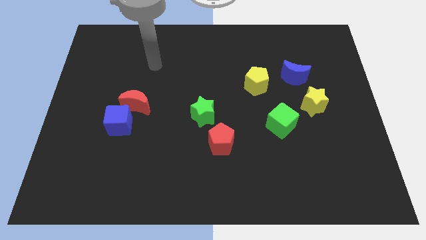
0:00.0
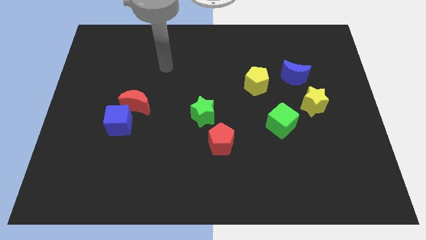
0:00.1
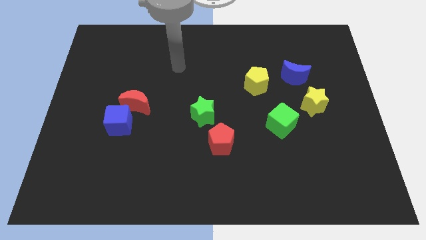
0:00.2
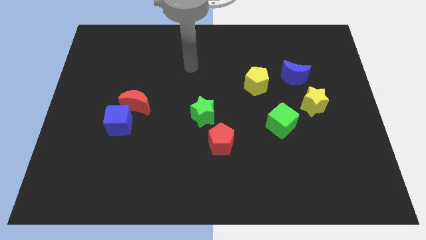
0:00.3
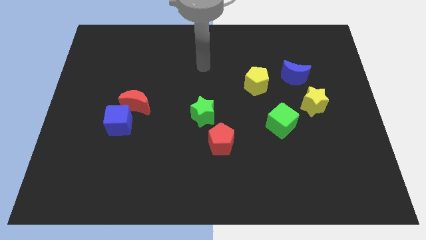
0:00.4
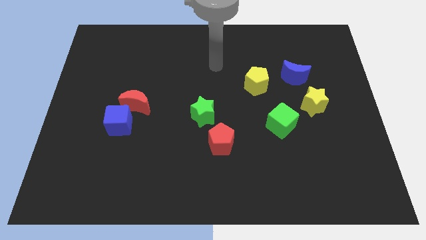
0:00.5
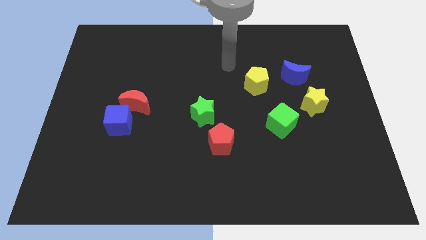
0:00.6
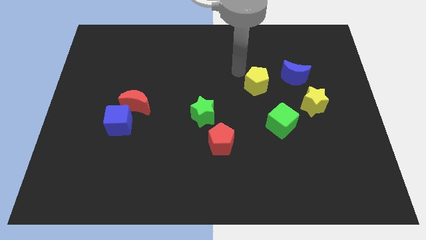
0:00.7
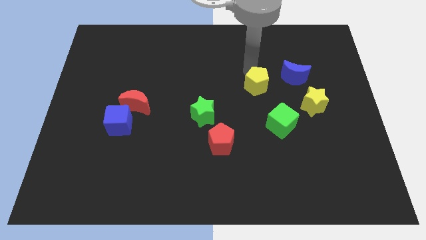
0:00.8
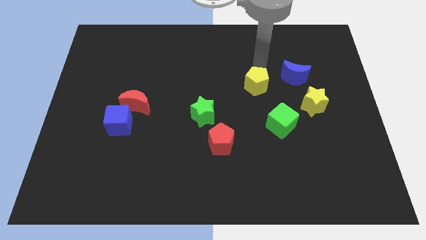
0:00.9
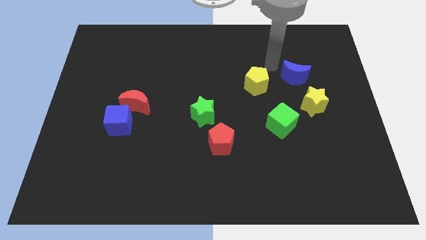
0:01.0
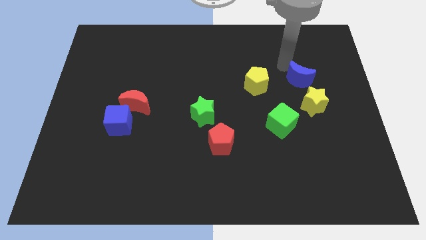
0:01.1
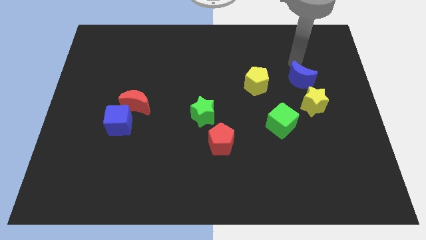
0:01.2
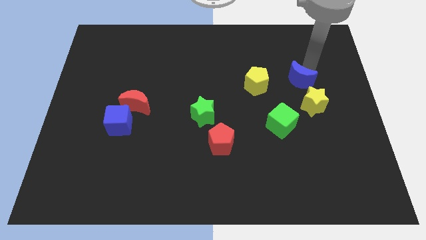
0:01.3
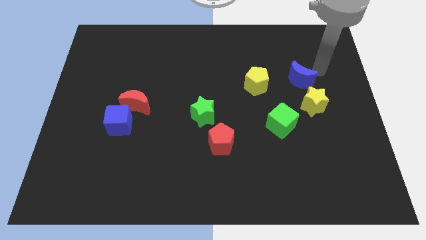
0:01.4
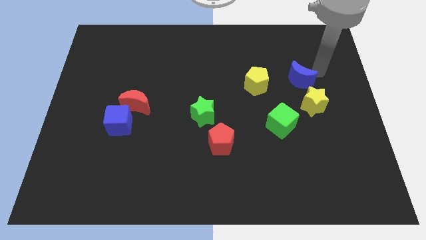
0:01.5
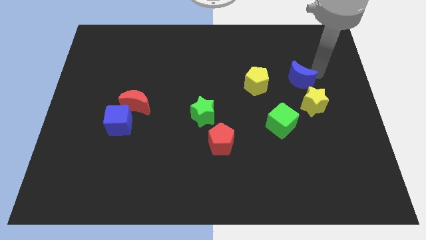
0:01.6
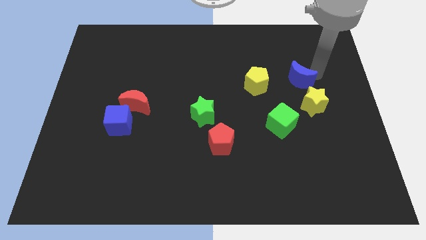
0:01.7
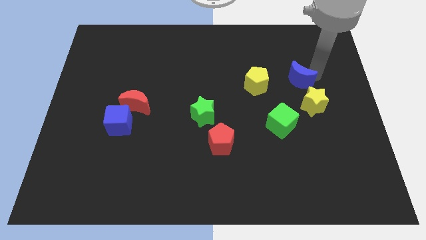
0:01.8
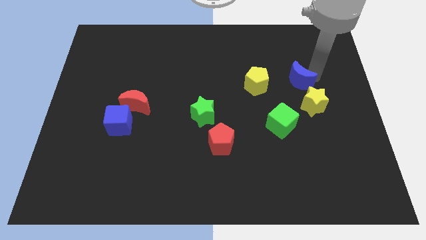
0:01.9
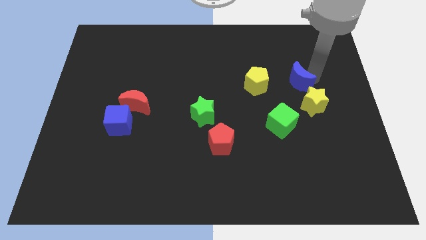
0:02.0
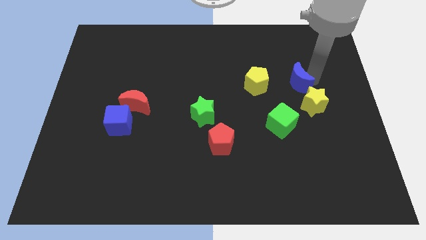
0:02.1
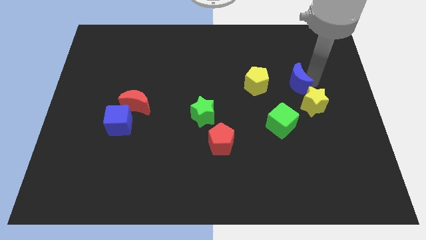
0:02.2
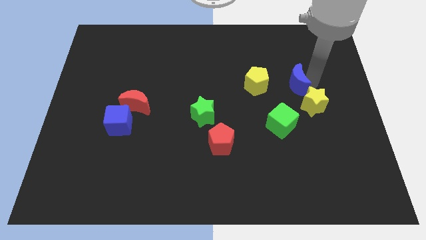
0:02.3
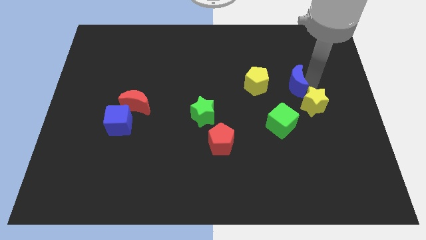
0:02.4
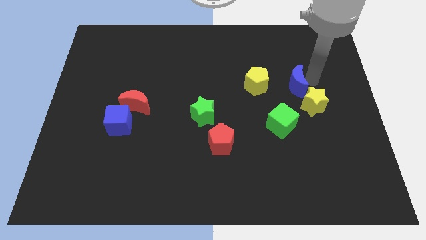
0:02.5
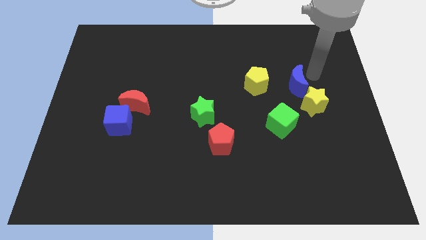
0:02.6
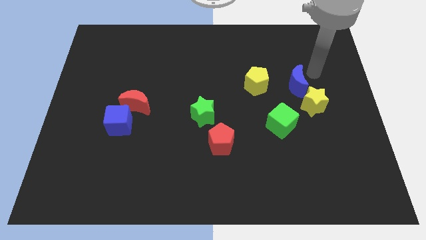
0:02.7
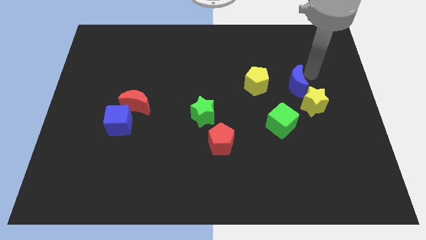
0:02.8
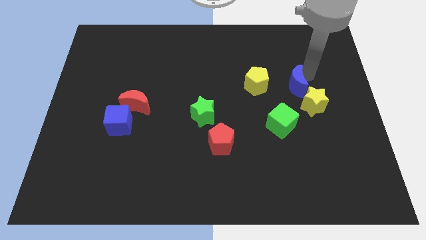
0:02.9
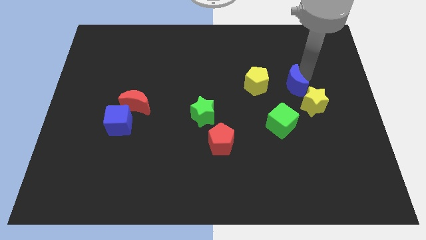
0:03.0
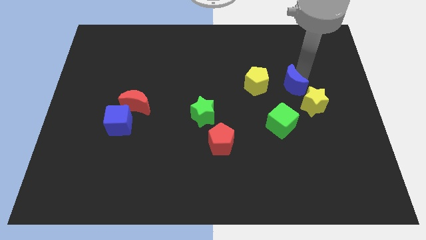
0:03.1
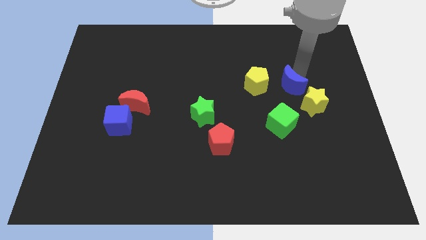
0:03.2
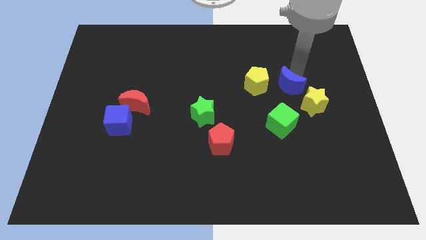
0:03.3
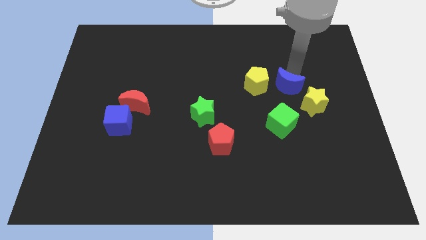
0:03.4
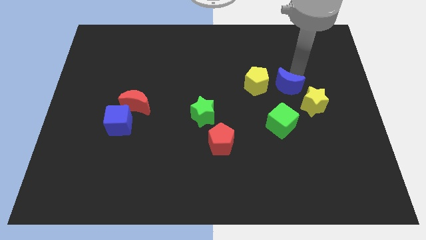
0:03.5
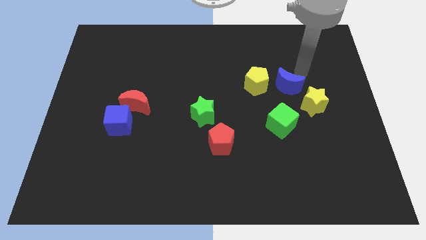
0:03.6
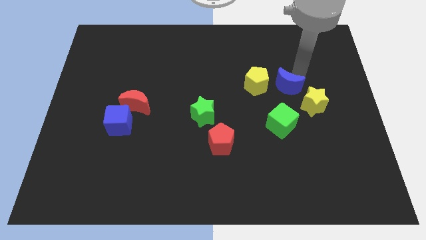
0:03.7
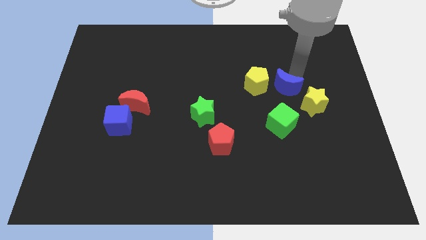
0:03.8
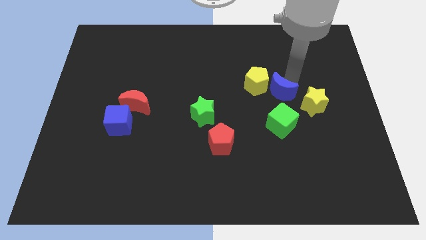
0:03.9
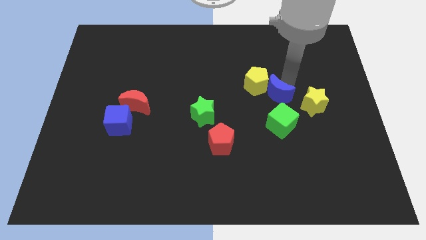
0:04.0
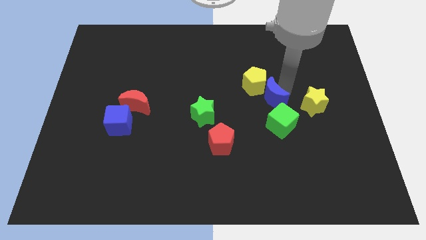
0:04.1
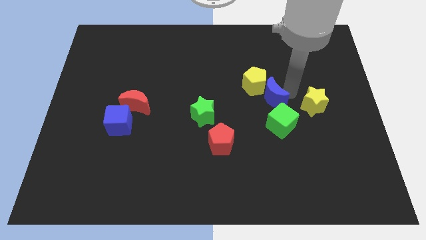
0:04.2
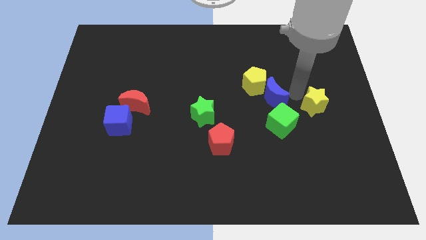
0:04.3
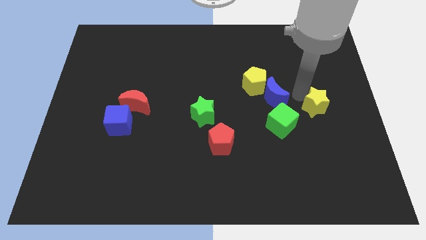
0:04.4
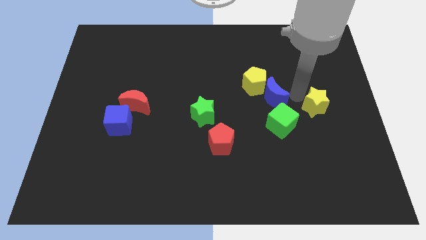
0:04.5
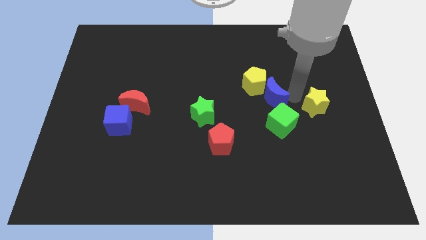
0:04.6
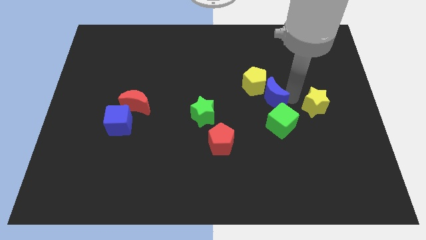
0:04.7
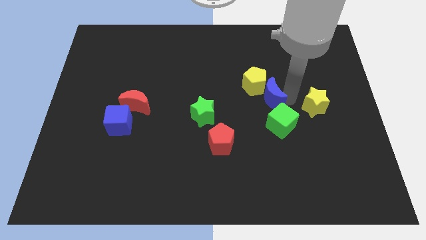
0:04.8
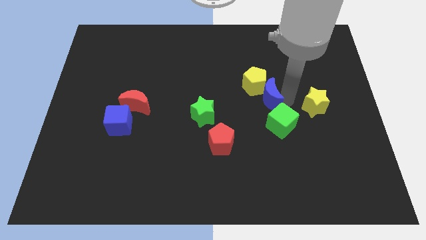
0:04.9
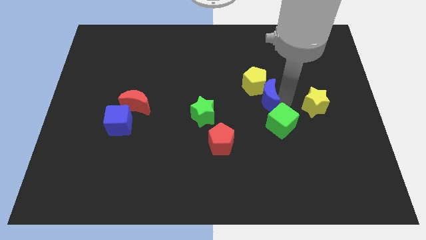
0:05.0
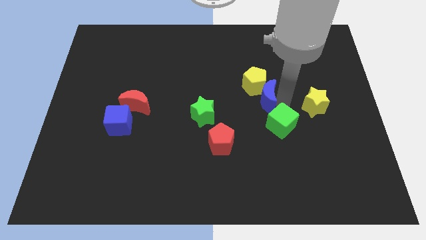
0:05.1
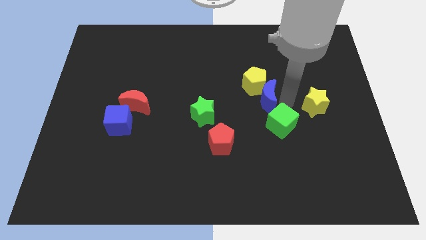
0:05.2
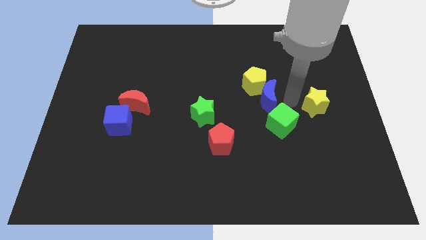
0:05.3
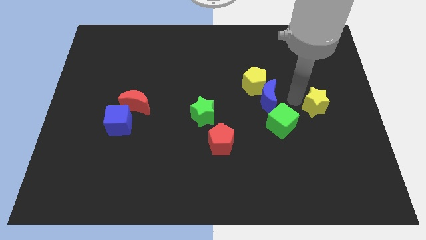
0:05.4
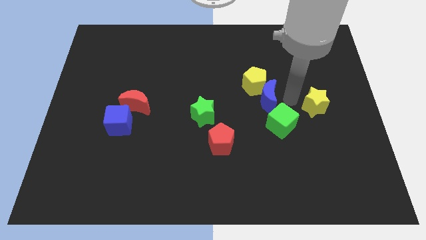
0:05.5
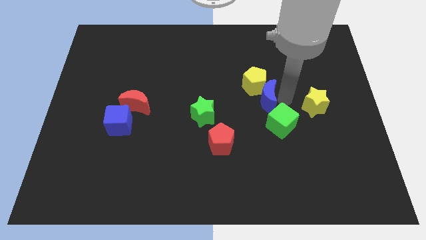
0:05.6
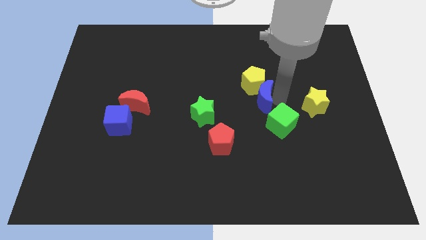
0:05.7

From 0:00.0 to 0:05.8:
move the blue moon to the middle

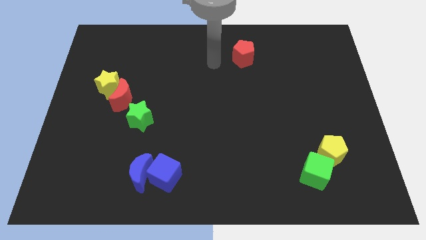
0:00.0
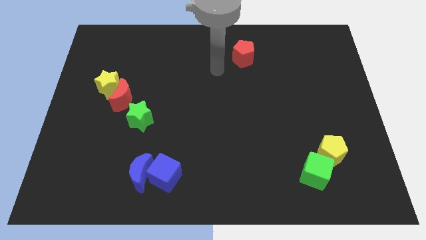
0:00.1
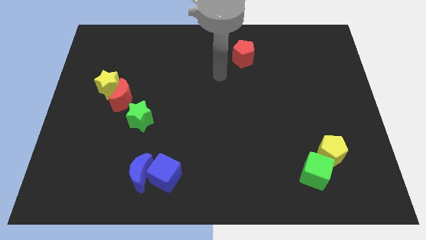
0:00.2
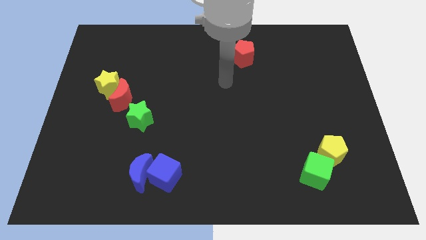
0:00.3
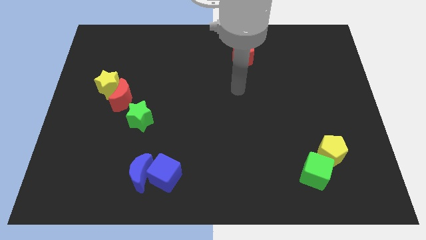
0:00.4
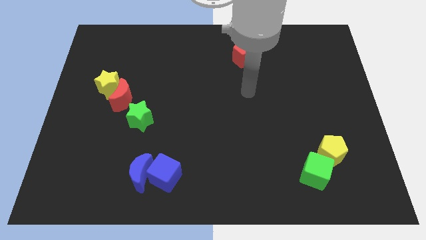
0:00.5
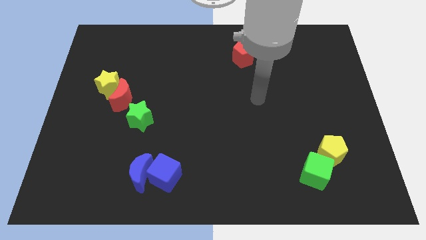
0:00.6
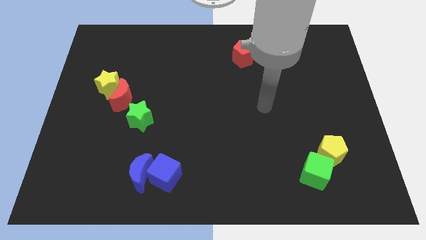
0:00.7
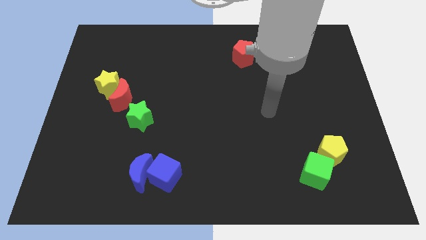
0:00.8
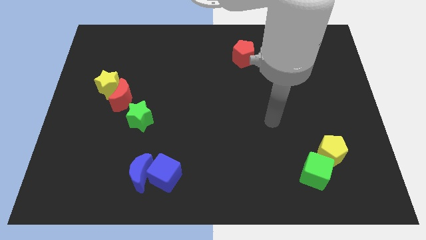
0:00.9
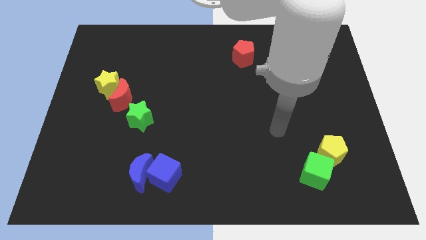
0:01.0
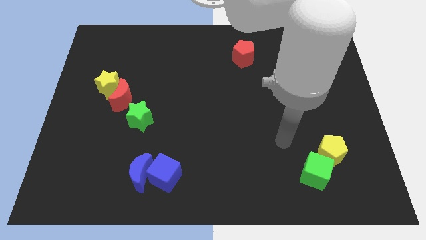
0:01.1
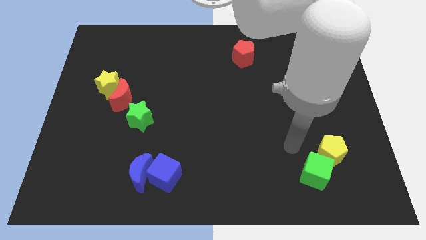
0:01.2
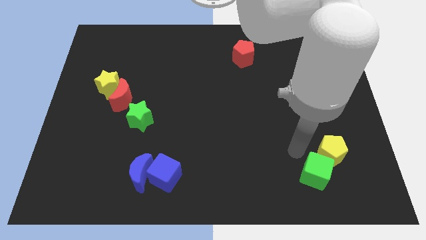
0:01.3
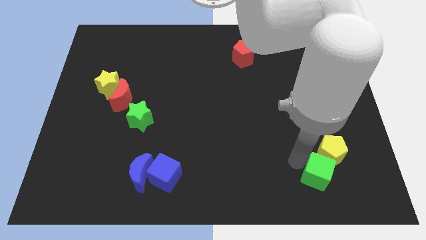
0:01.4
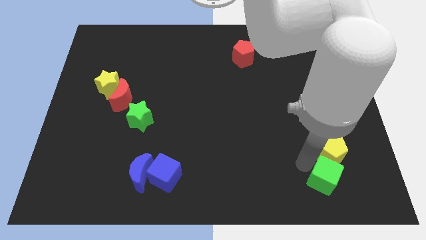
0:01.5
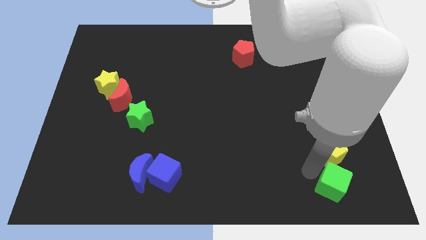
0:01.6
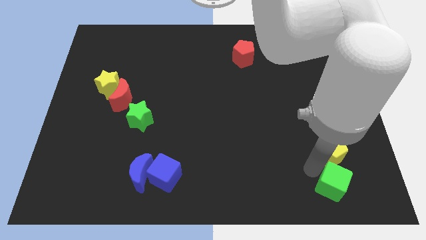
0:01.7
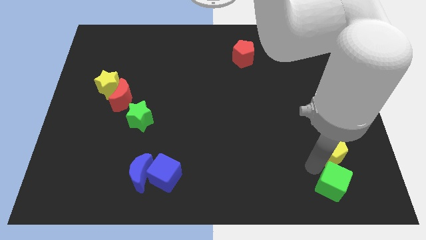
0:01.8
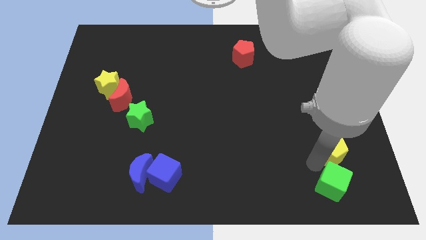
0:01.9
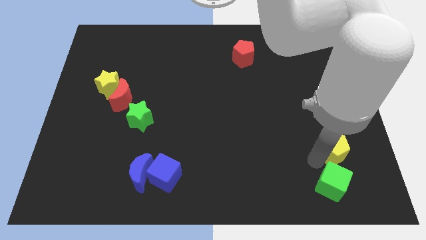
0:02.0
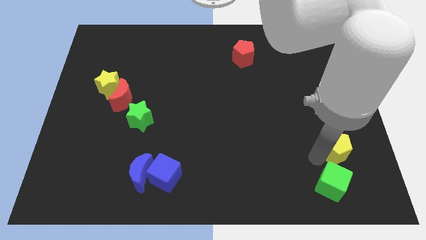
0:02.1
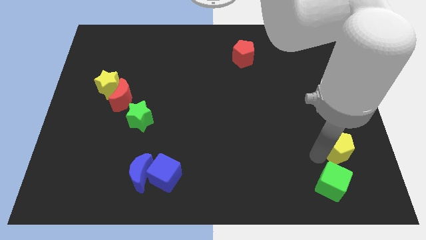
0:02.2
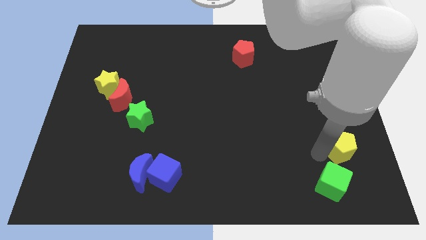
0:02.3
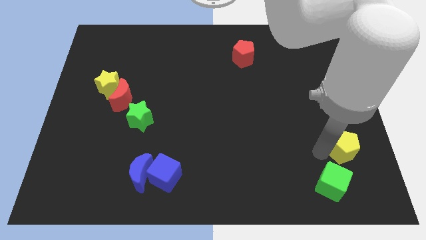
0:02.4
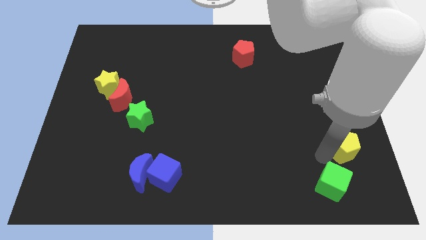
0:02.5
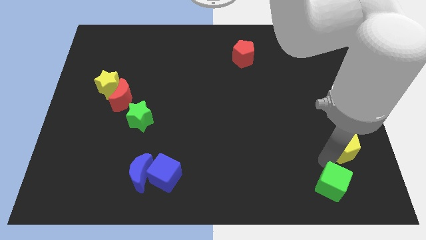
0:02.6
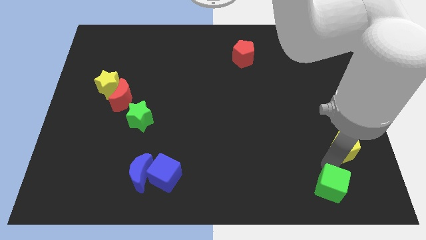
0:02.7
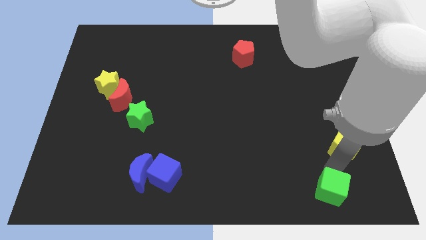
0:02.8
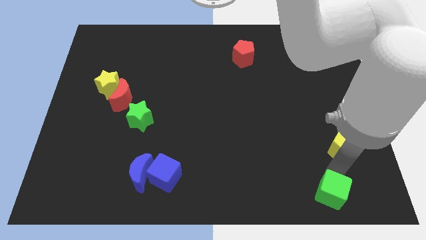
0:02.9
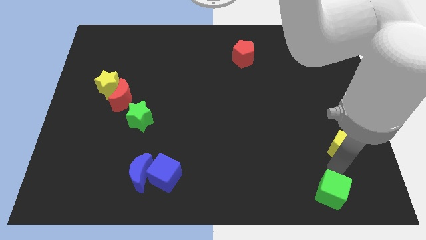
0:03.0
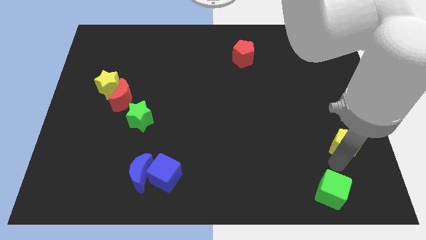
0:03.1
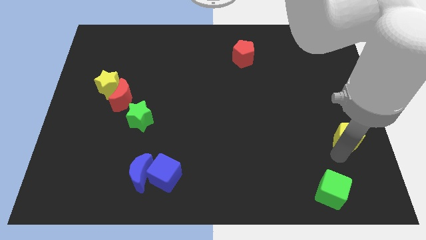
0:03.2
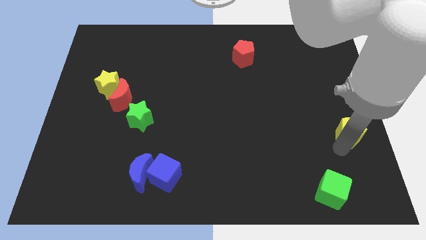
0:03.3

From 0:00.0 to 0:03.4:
push the yellow pentagon to the right side of the board
